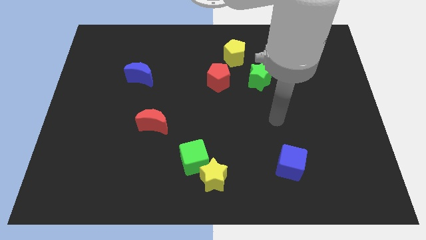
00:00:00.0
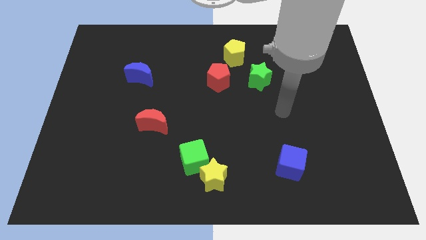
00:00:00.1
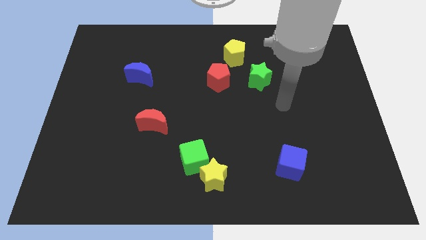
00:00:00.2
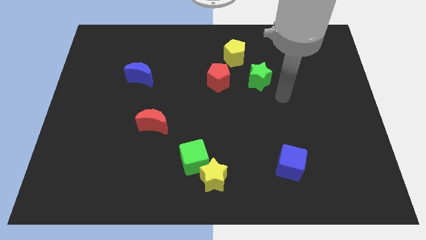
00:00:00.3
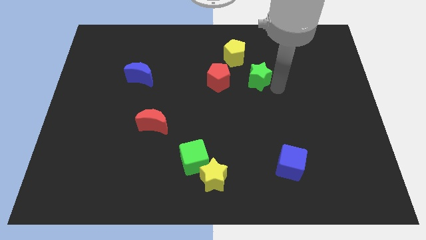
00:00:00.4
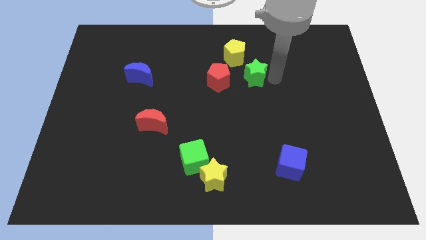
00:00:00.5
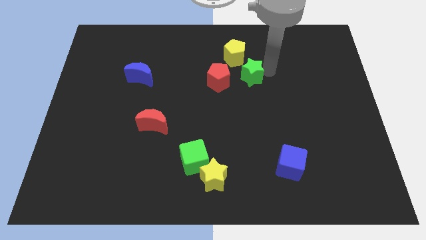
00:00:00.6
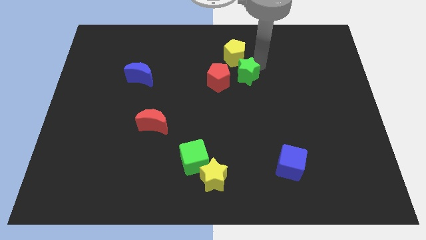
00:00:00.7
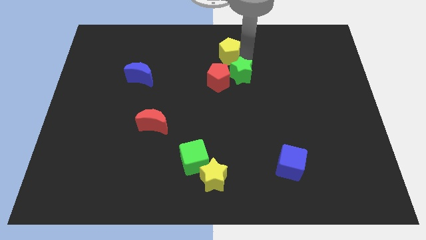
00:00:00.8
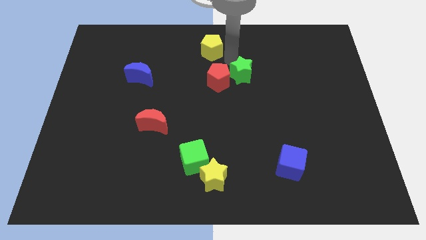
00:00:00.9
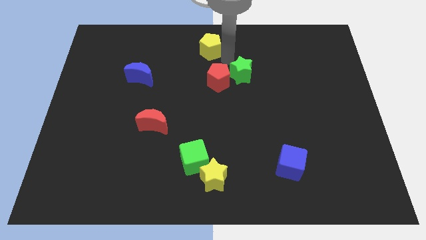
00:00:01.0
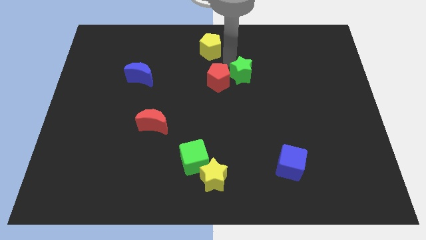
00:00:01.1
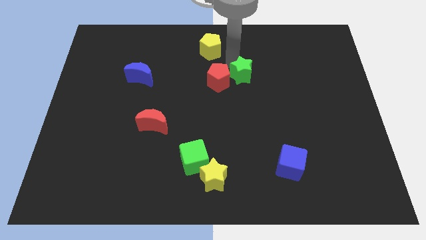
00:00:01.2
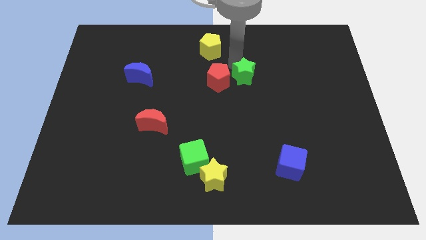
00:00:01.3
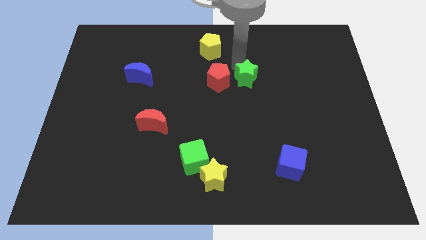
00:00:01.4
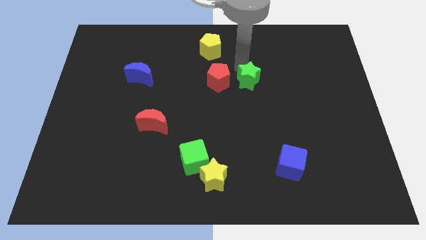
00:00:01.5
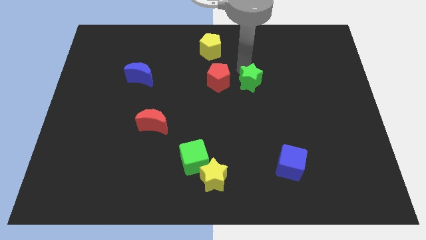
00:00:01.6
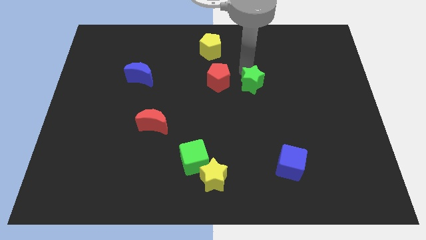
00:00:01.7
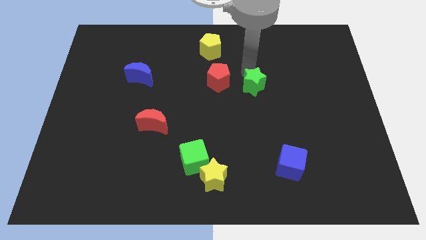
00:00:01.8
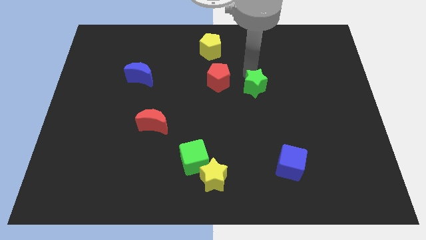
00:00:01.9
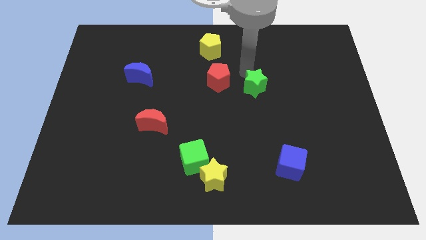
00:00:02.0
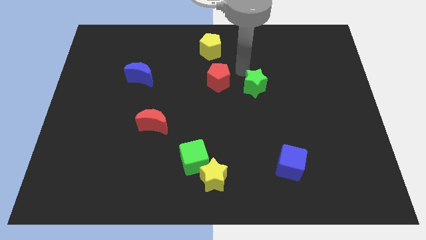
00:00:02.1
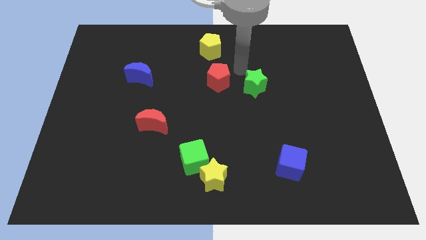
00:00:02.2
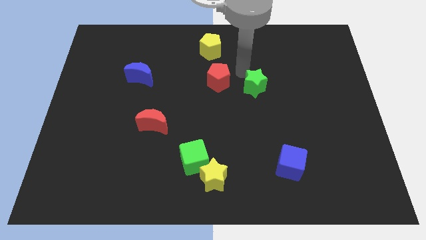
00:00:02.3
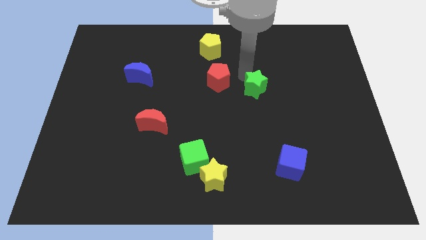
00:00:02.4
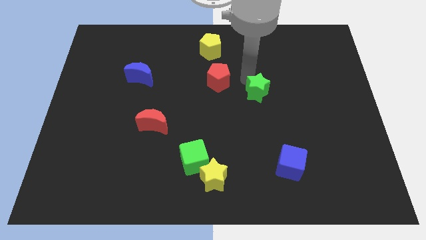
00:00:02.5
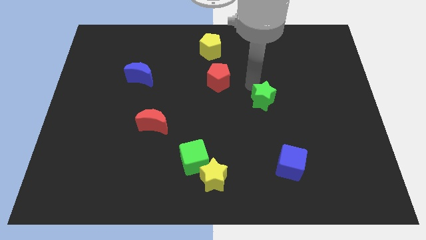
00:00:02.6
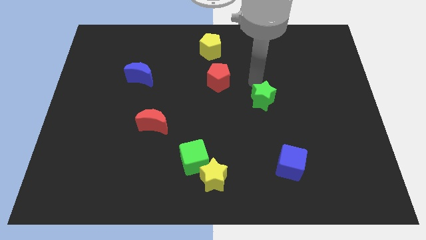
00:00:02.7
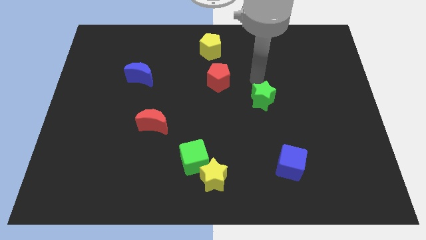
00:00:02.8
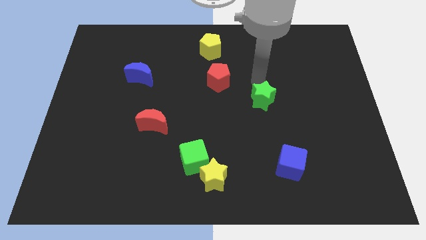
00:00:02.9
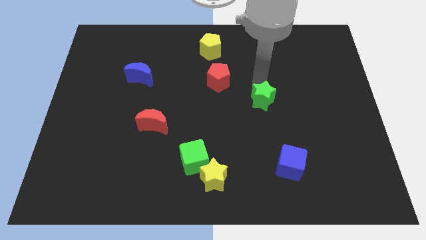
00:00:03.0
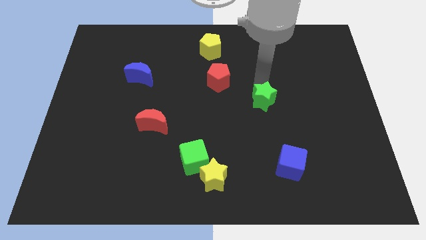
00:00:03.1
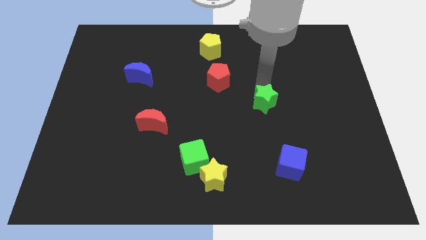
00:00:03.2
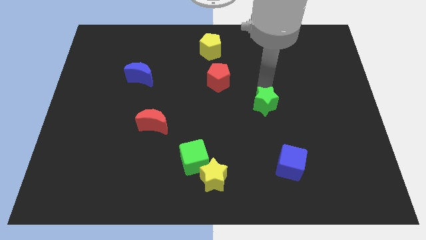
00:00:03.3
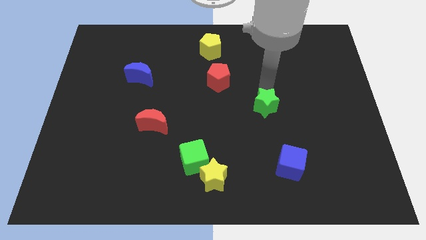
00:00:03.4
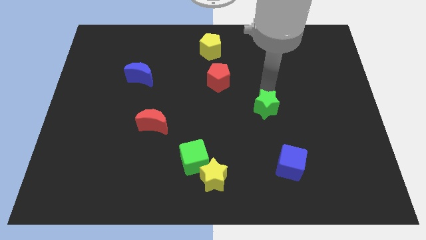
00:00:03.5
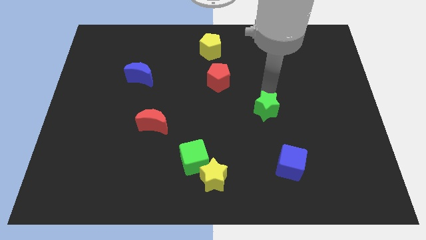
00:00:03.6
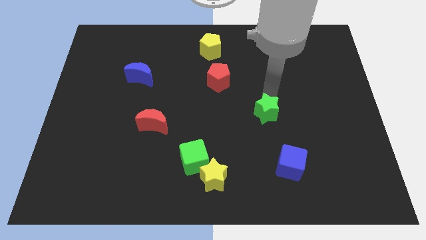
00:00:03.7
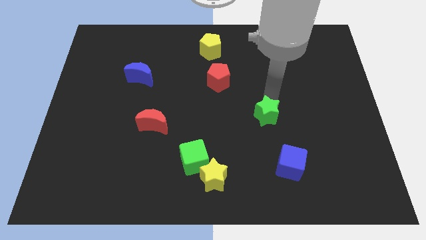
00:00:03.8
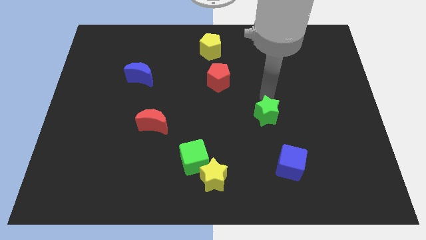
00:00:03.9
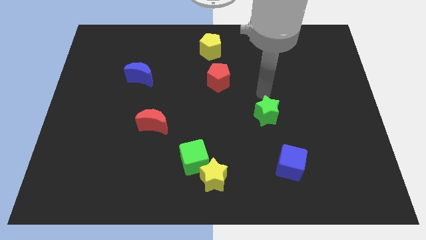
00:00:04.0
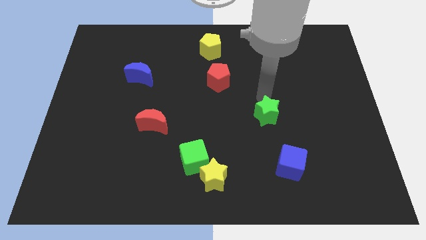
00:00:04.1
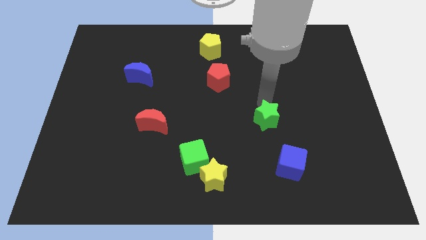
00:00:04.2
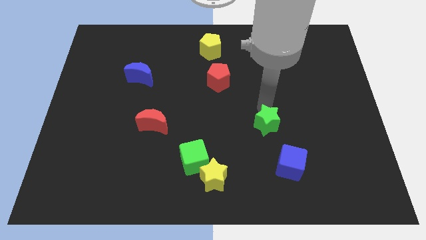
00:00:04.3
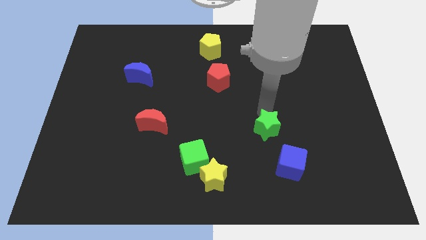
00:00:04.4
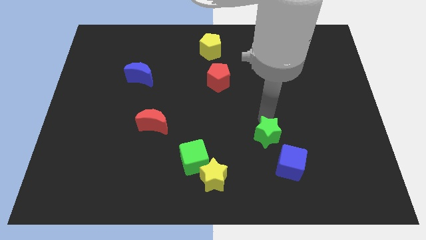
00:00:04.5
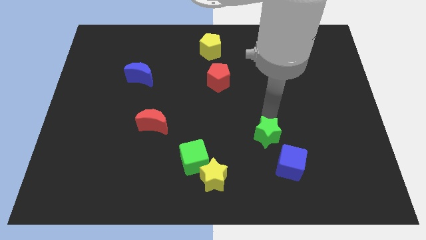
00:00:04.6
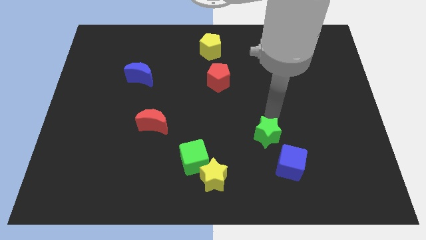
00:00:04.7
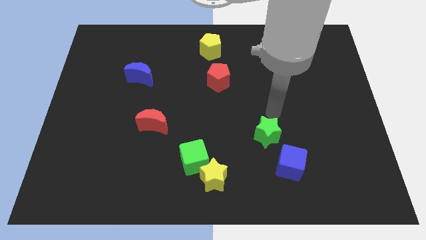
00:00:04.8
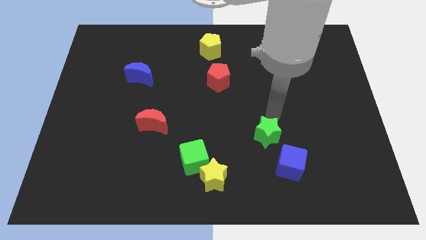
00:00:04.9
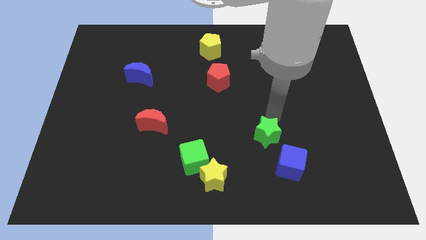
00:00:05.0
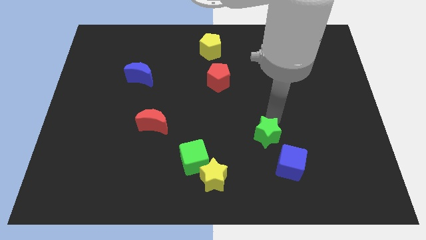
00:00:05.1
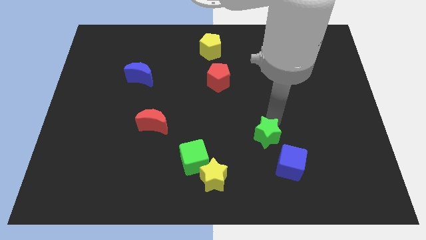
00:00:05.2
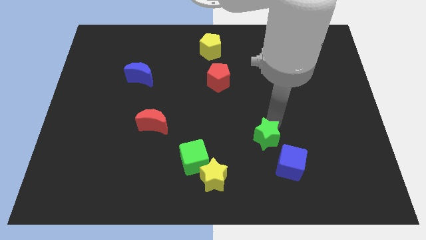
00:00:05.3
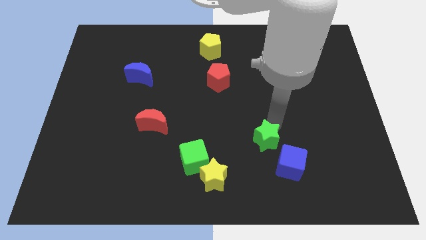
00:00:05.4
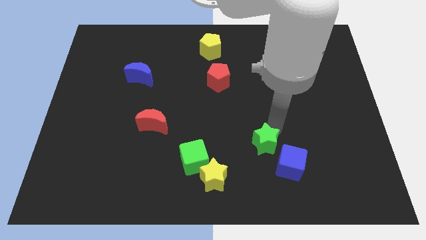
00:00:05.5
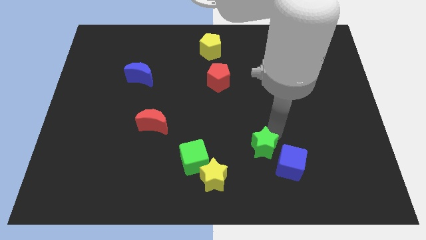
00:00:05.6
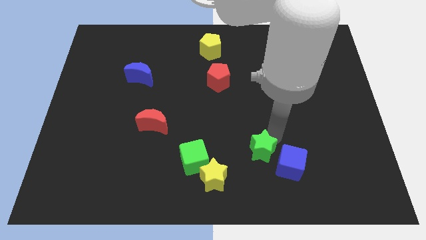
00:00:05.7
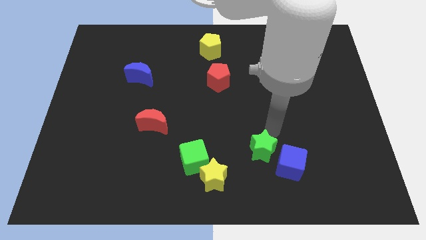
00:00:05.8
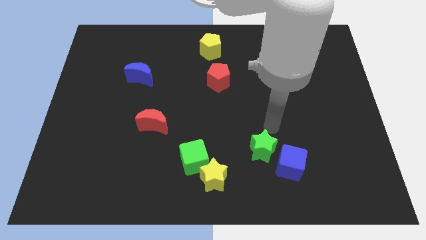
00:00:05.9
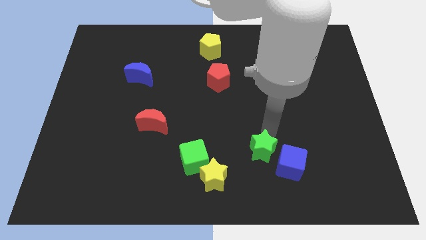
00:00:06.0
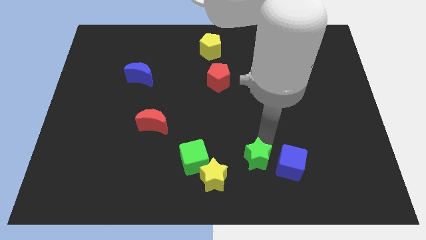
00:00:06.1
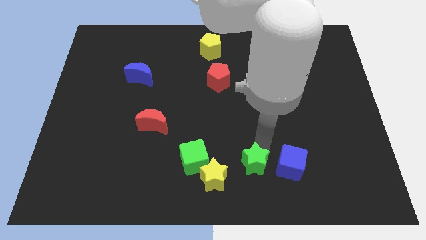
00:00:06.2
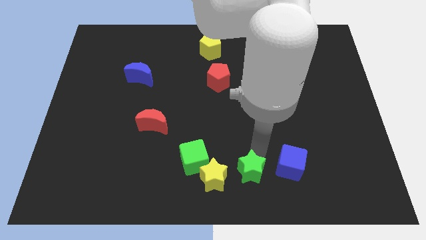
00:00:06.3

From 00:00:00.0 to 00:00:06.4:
put the green star to the bottom side
